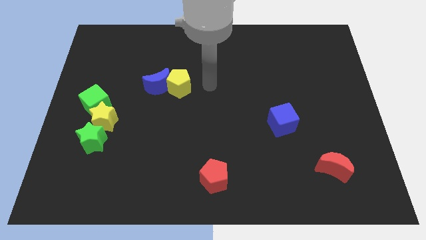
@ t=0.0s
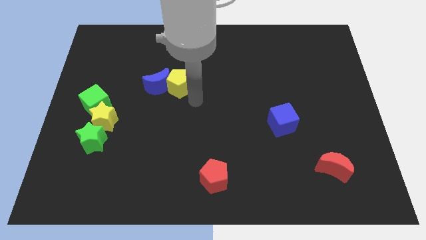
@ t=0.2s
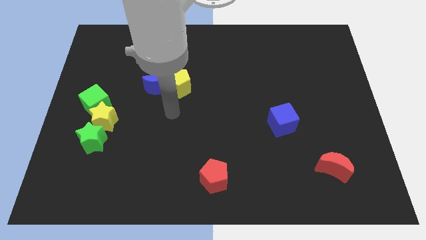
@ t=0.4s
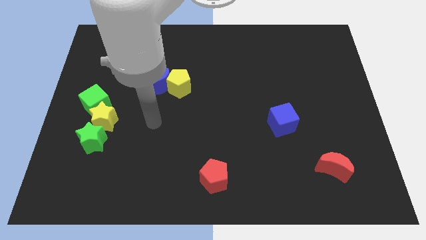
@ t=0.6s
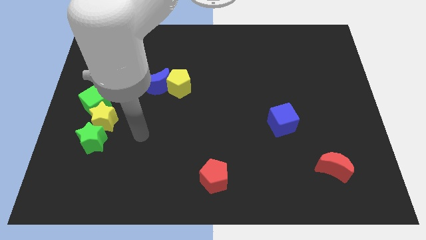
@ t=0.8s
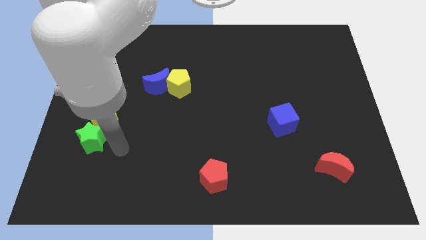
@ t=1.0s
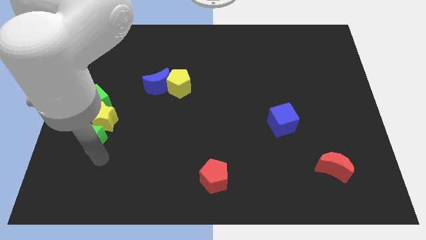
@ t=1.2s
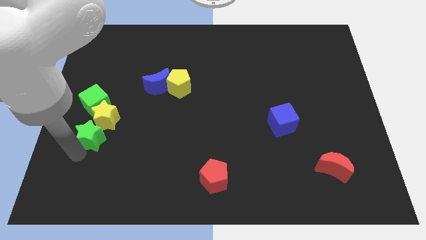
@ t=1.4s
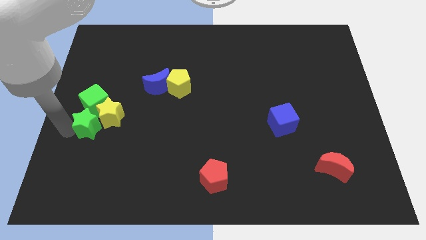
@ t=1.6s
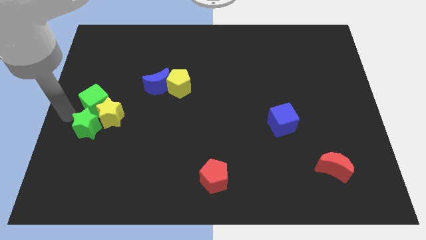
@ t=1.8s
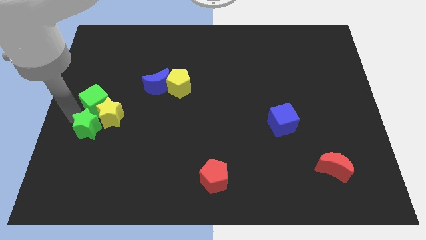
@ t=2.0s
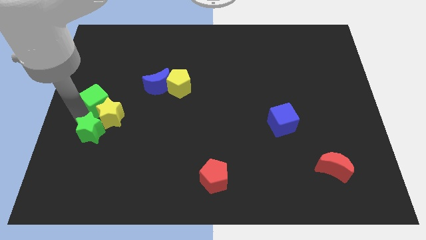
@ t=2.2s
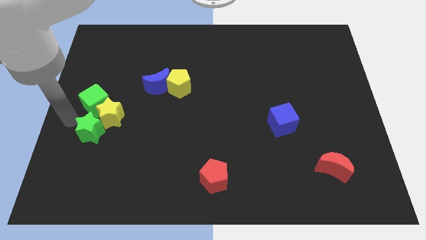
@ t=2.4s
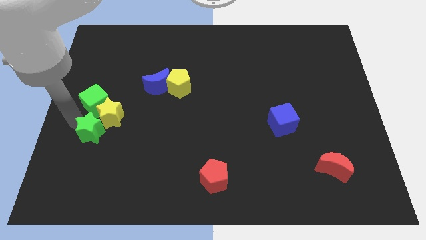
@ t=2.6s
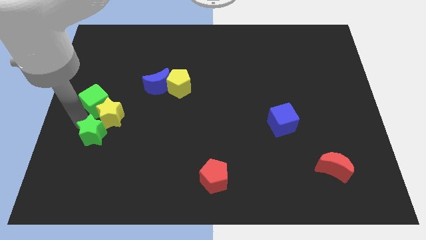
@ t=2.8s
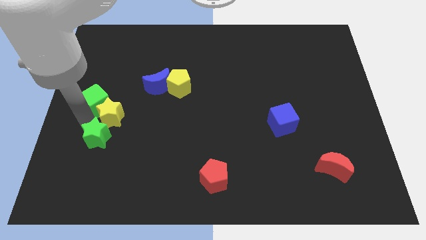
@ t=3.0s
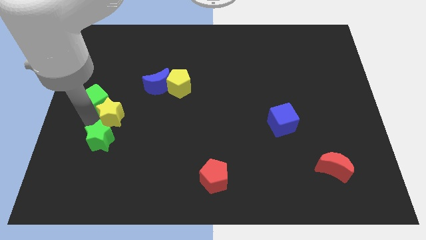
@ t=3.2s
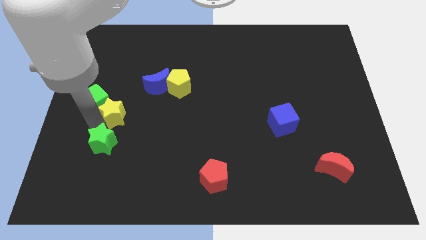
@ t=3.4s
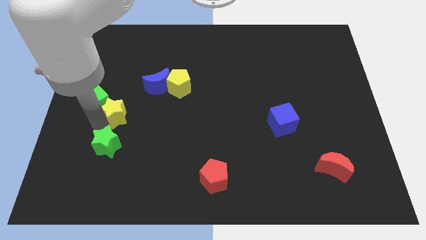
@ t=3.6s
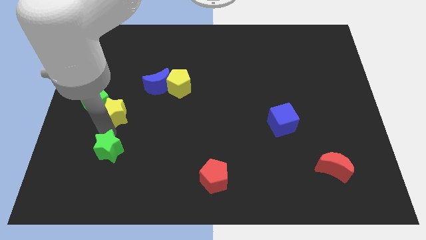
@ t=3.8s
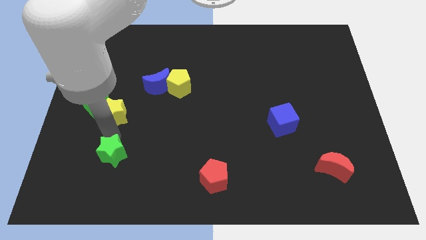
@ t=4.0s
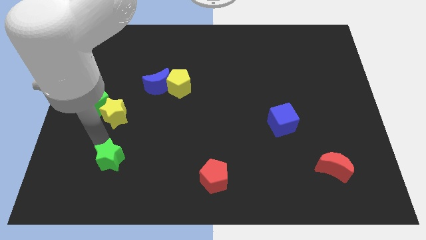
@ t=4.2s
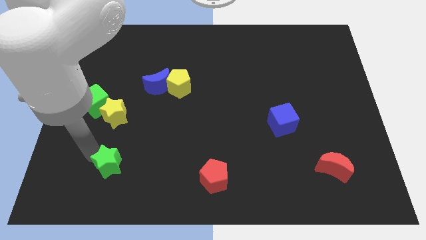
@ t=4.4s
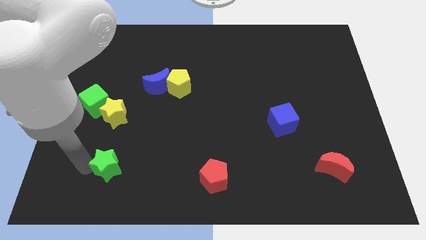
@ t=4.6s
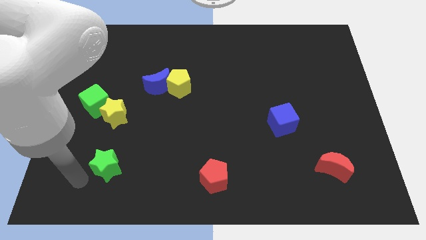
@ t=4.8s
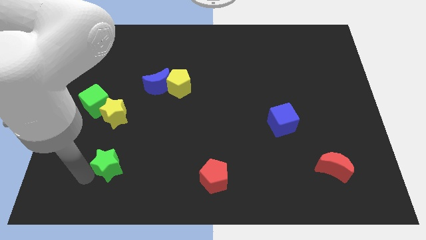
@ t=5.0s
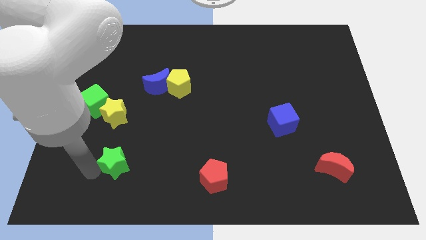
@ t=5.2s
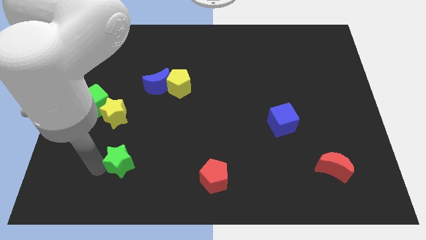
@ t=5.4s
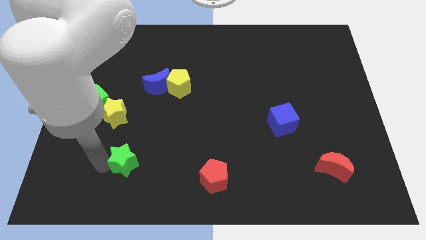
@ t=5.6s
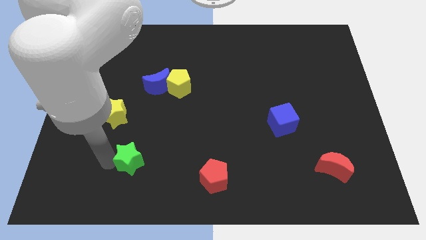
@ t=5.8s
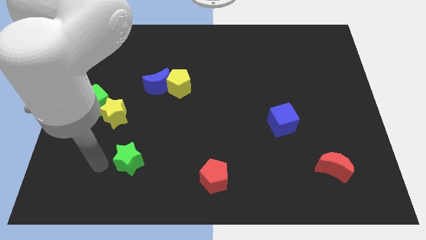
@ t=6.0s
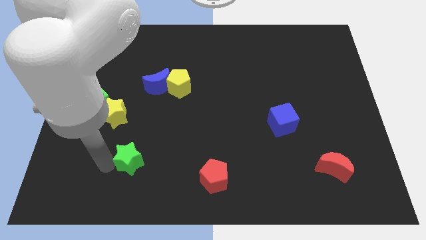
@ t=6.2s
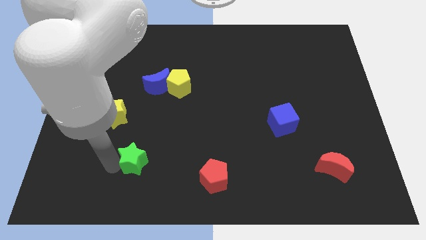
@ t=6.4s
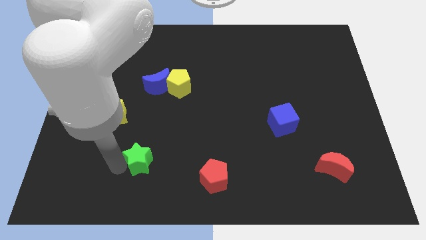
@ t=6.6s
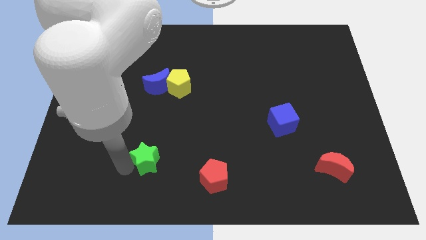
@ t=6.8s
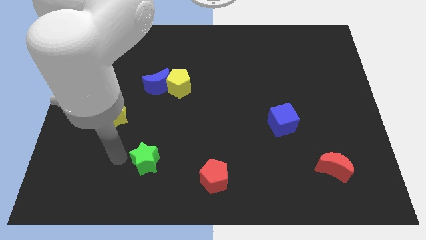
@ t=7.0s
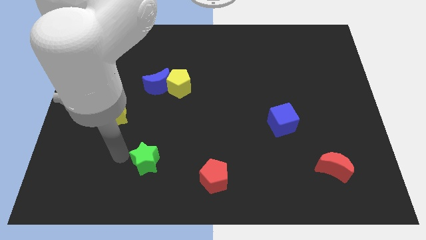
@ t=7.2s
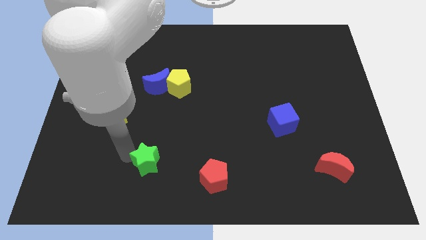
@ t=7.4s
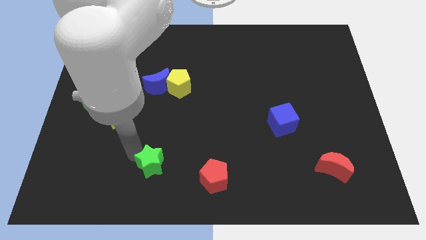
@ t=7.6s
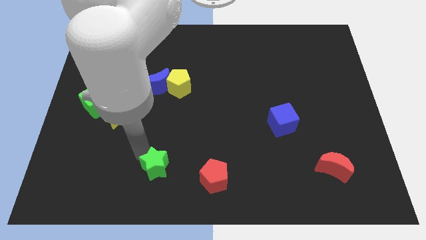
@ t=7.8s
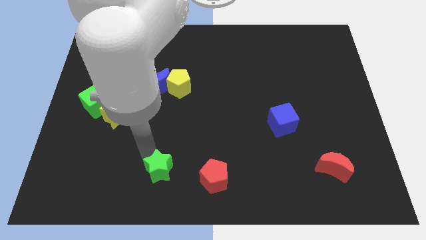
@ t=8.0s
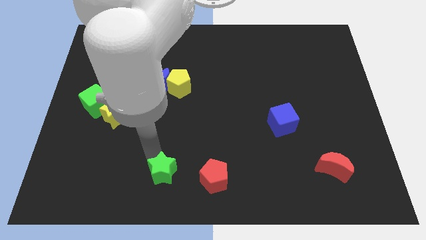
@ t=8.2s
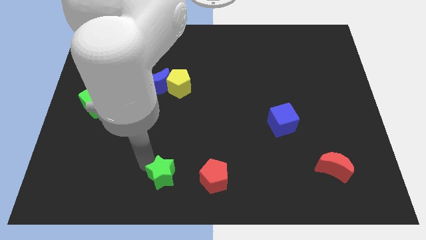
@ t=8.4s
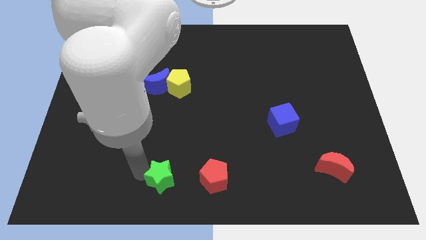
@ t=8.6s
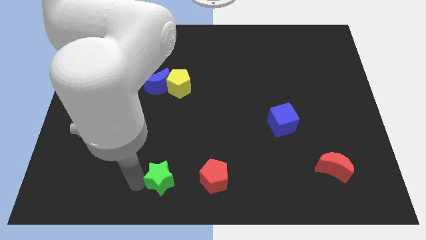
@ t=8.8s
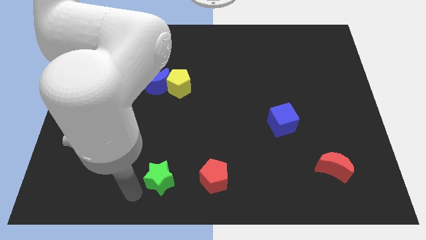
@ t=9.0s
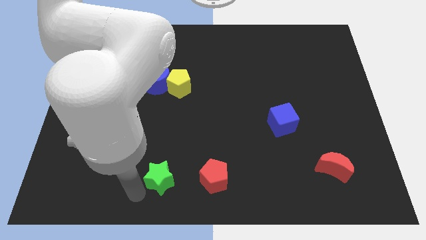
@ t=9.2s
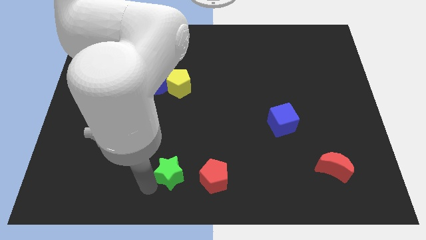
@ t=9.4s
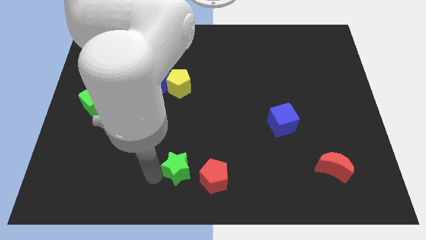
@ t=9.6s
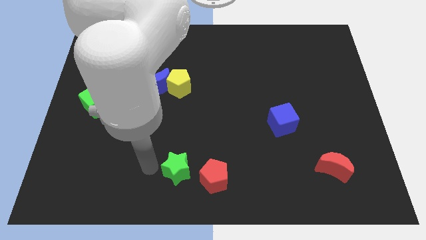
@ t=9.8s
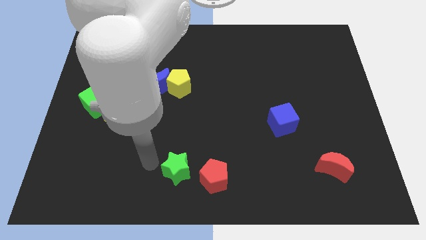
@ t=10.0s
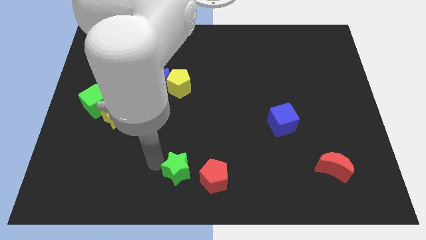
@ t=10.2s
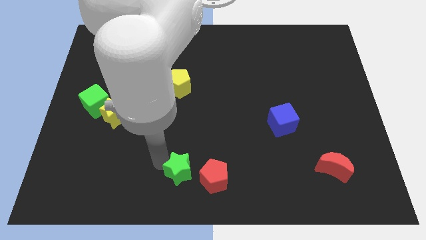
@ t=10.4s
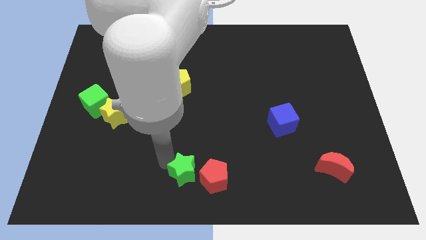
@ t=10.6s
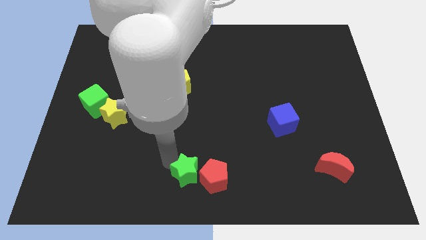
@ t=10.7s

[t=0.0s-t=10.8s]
push the green star next to the red pentagon

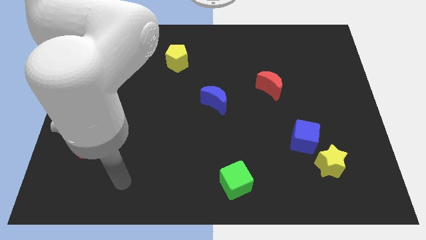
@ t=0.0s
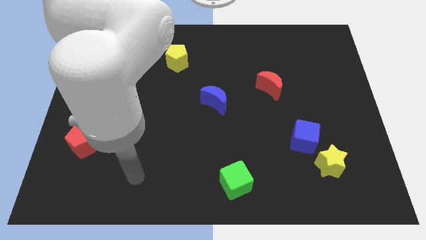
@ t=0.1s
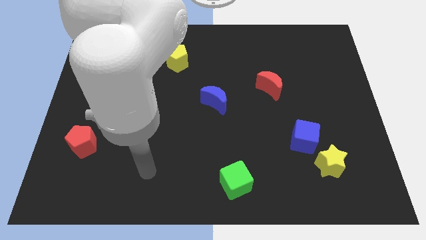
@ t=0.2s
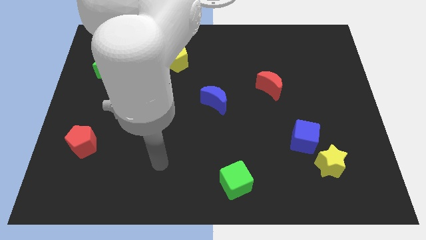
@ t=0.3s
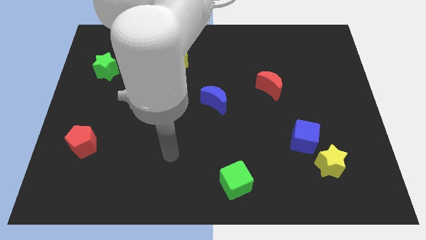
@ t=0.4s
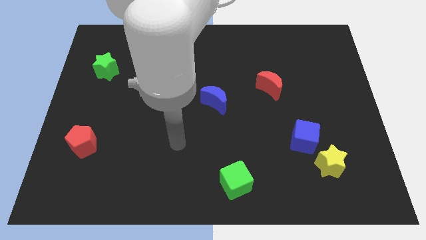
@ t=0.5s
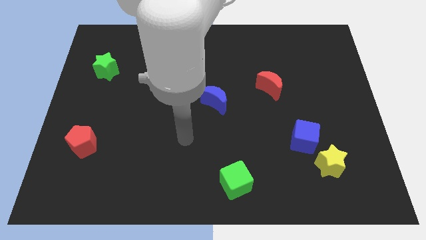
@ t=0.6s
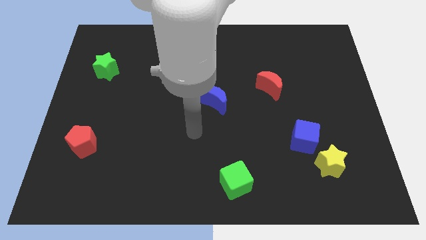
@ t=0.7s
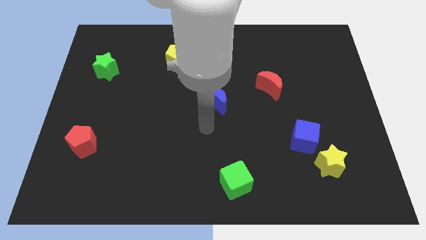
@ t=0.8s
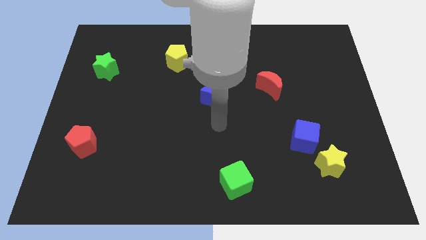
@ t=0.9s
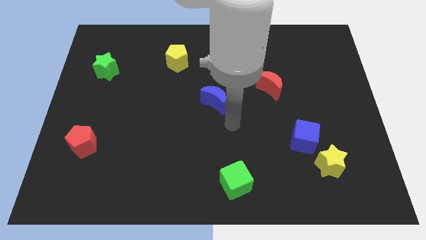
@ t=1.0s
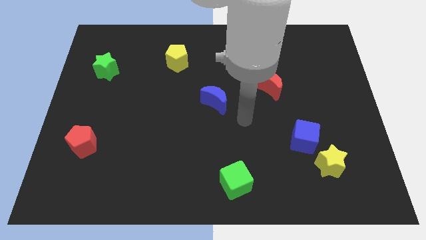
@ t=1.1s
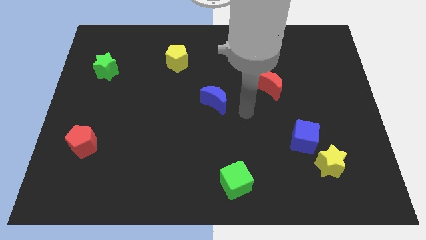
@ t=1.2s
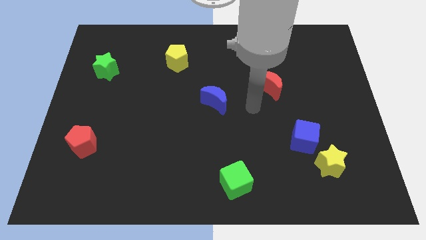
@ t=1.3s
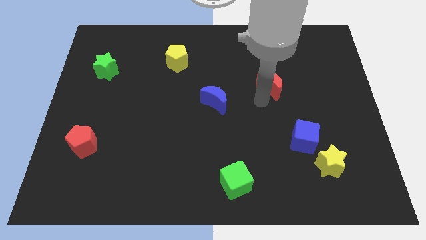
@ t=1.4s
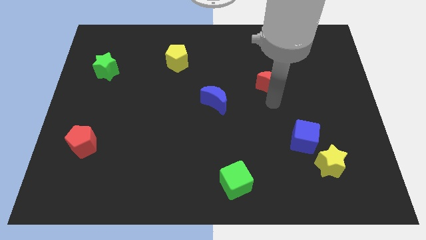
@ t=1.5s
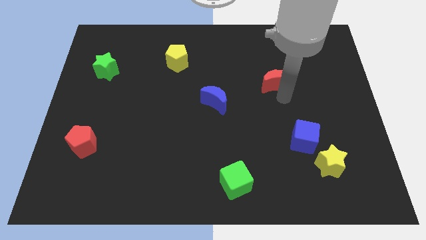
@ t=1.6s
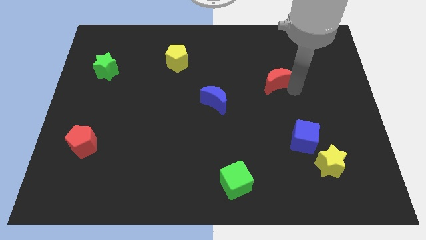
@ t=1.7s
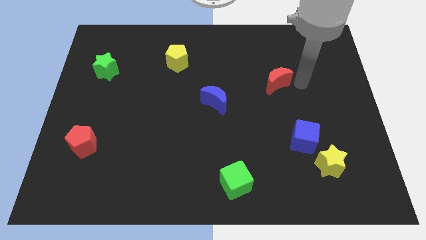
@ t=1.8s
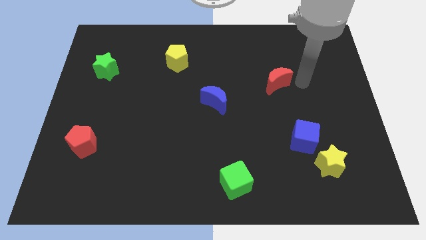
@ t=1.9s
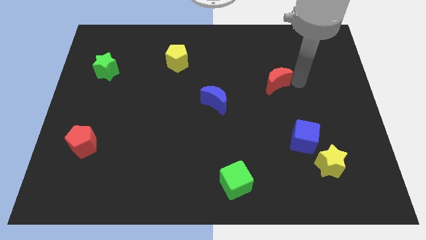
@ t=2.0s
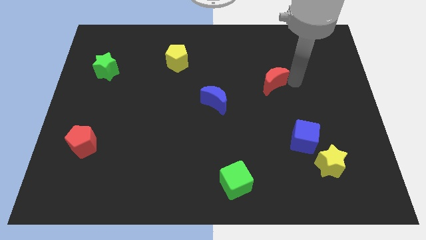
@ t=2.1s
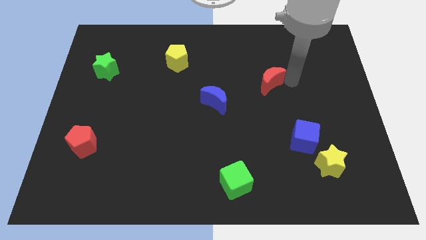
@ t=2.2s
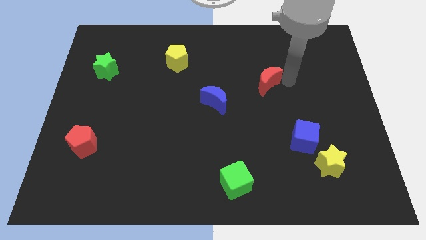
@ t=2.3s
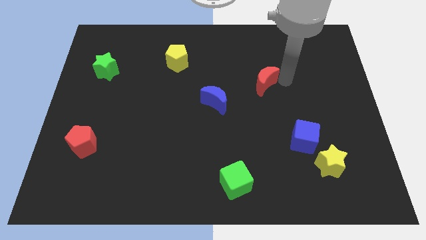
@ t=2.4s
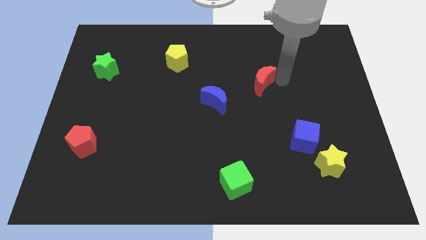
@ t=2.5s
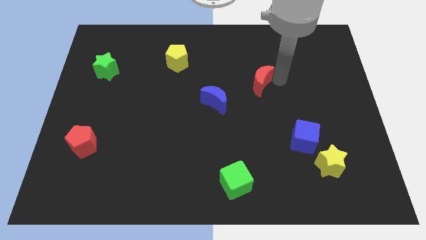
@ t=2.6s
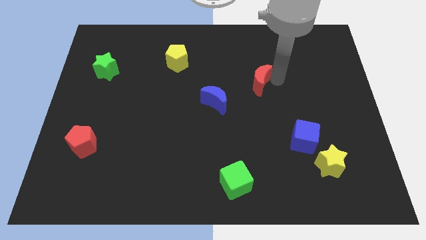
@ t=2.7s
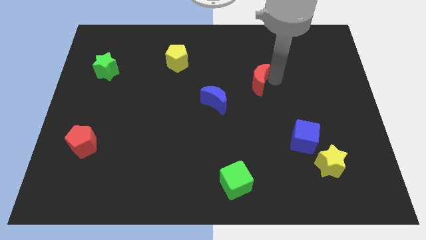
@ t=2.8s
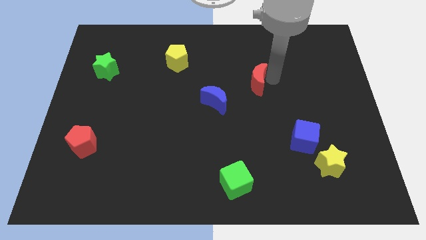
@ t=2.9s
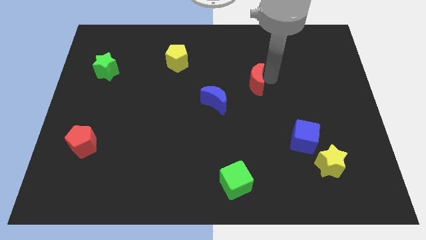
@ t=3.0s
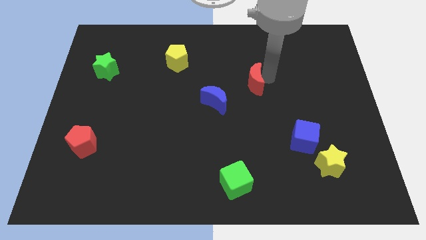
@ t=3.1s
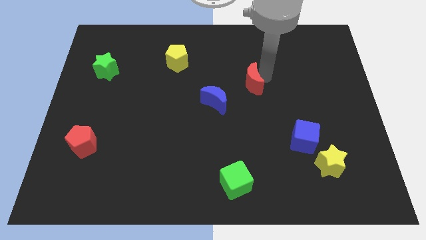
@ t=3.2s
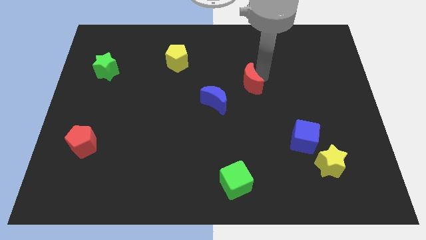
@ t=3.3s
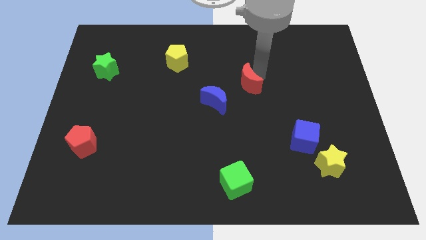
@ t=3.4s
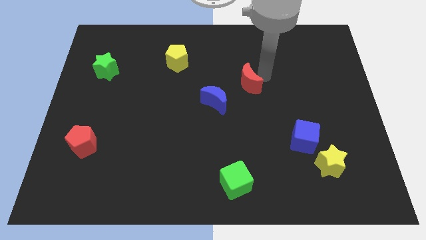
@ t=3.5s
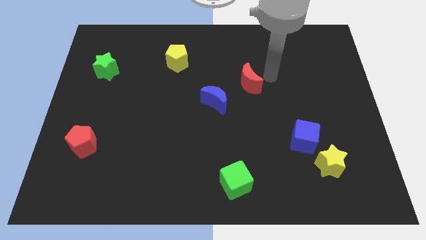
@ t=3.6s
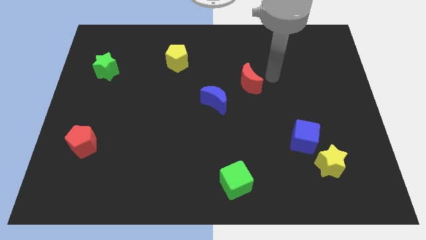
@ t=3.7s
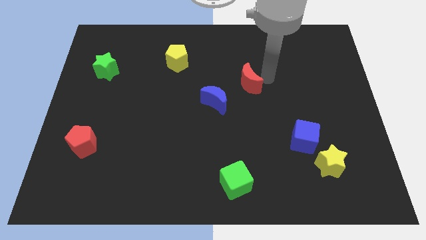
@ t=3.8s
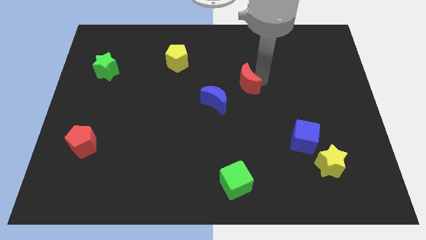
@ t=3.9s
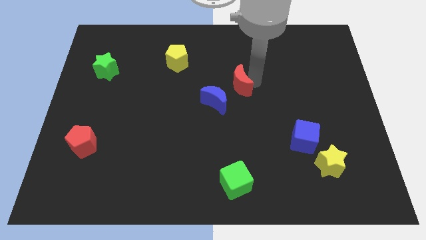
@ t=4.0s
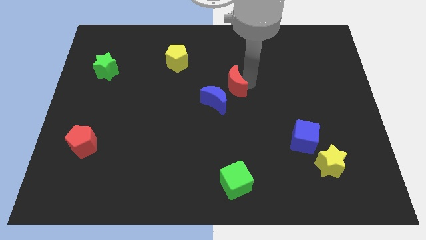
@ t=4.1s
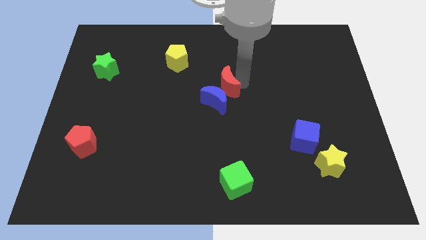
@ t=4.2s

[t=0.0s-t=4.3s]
move the red moon close to the blue moon
